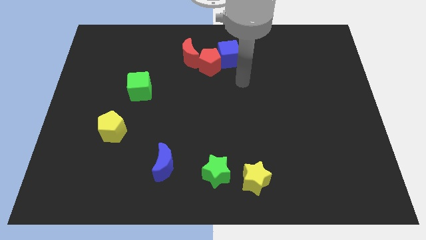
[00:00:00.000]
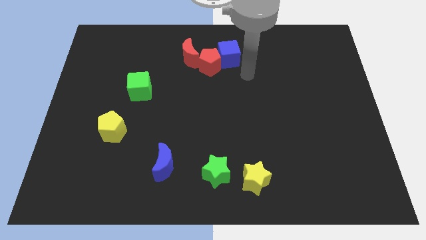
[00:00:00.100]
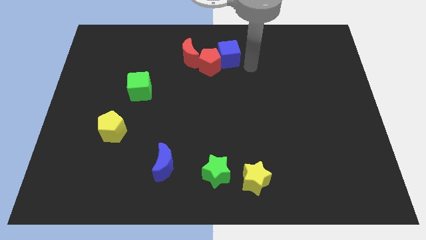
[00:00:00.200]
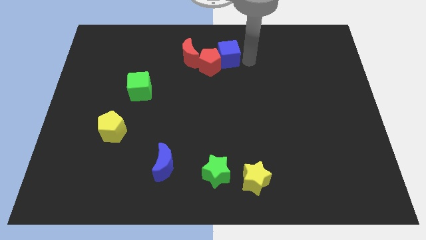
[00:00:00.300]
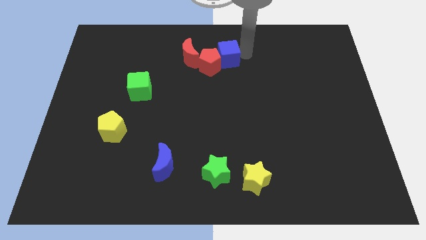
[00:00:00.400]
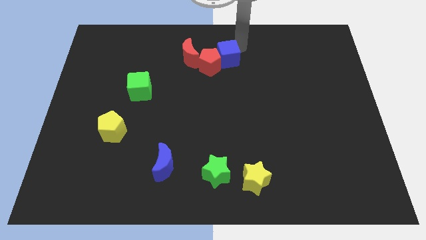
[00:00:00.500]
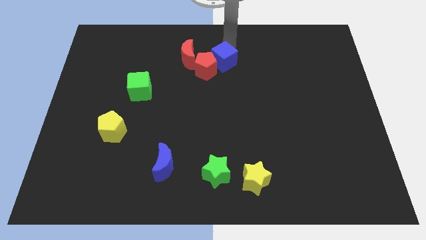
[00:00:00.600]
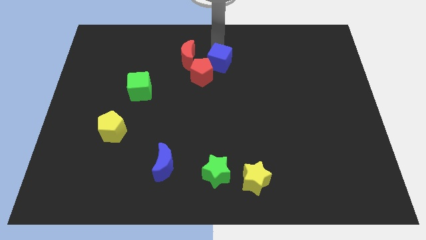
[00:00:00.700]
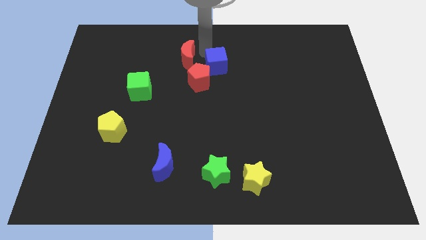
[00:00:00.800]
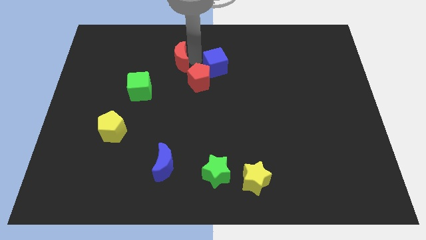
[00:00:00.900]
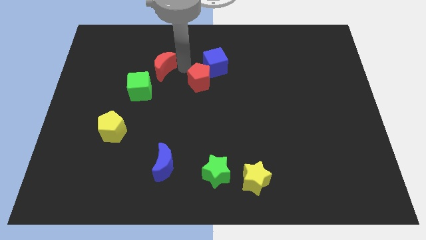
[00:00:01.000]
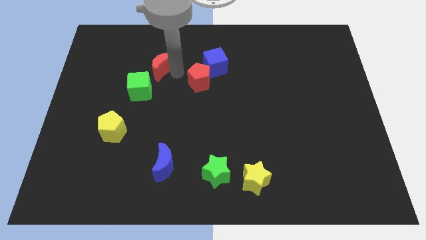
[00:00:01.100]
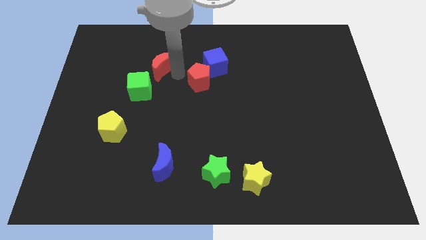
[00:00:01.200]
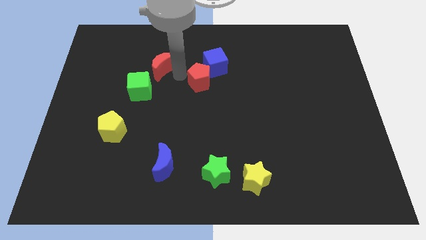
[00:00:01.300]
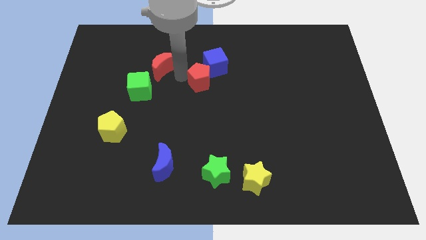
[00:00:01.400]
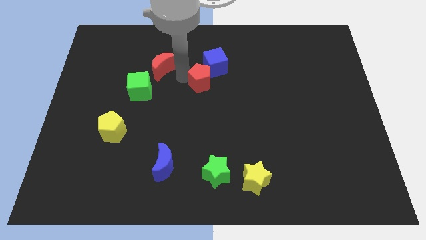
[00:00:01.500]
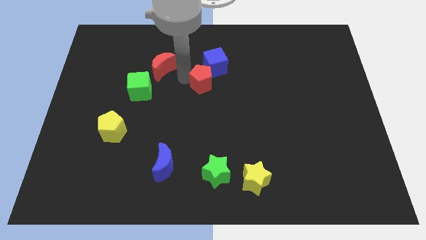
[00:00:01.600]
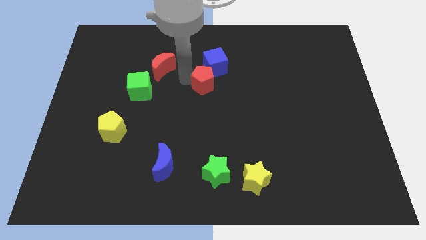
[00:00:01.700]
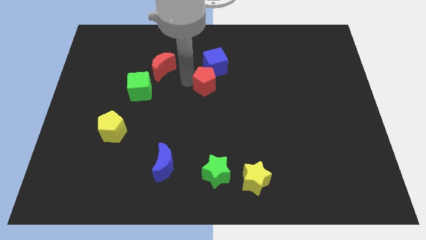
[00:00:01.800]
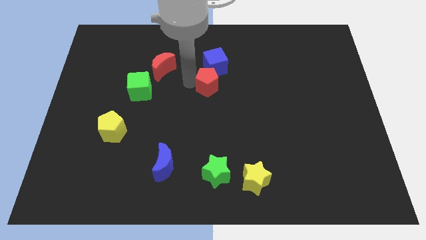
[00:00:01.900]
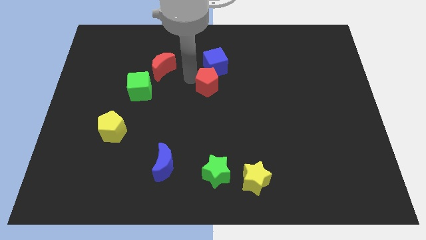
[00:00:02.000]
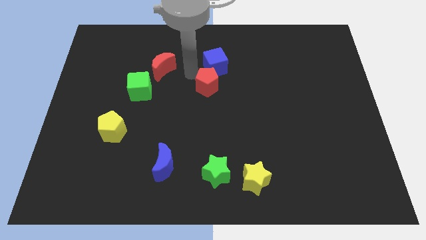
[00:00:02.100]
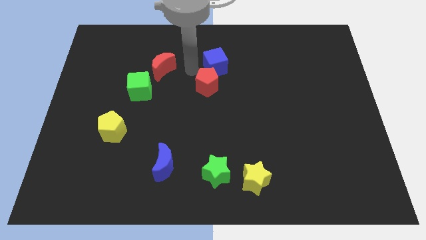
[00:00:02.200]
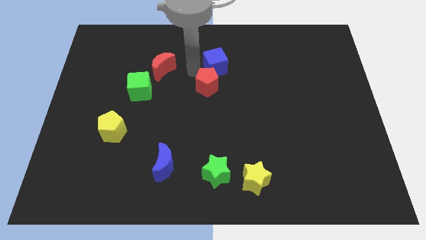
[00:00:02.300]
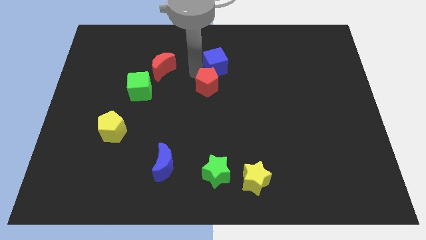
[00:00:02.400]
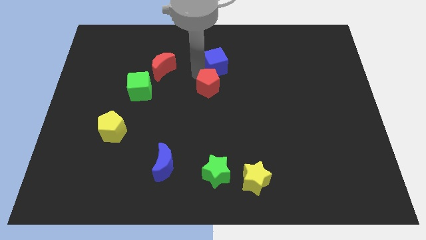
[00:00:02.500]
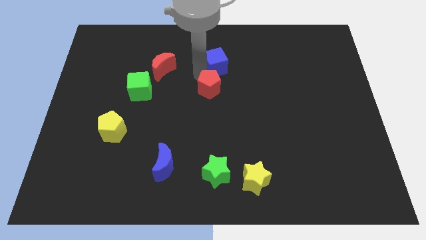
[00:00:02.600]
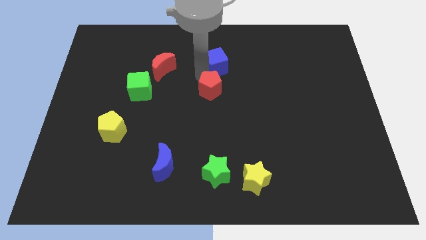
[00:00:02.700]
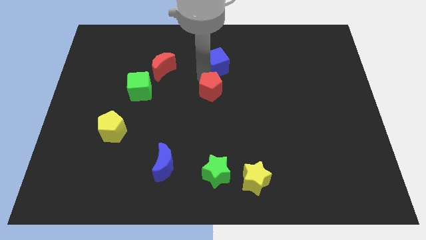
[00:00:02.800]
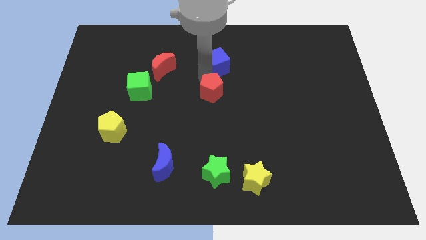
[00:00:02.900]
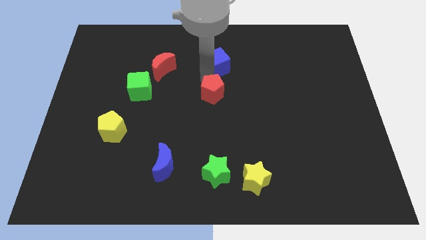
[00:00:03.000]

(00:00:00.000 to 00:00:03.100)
move the red pentagon away from the blue cube and red moon

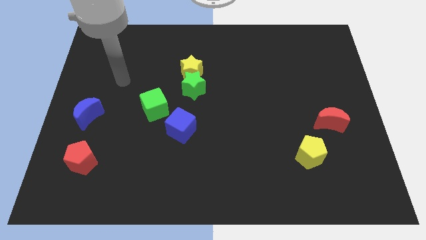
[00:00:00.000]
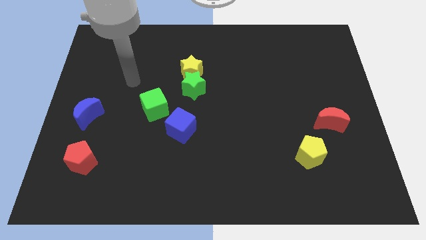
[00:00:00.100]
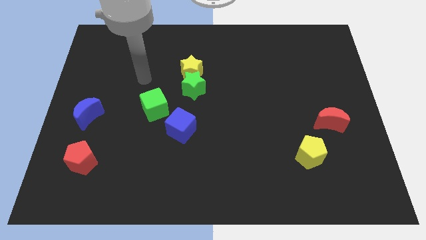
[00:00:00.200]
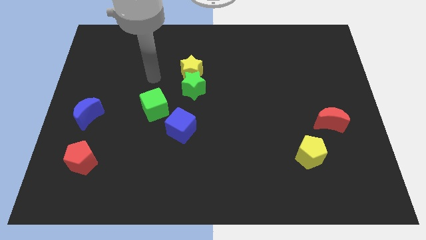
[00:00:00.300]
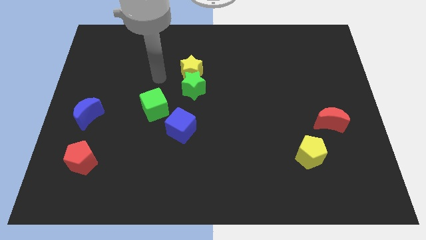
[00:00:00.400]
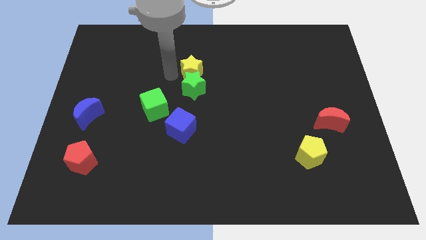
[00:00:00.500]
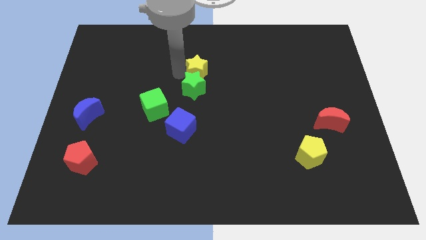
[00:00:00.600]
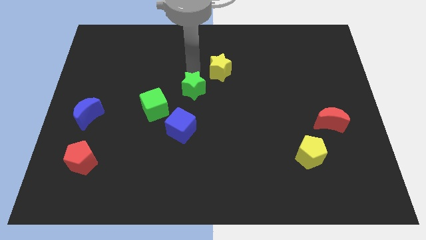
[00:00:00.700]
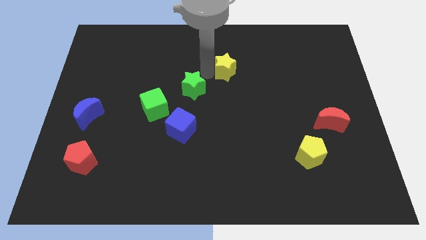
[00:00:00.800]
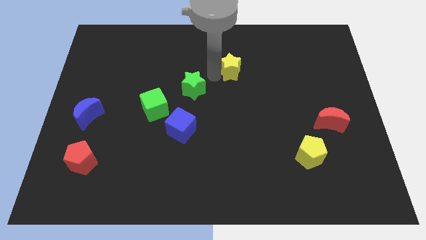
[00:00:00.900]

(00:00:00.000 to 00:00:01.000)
move the green star away from the yellow star

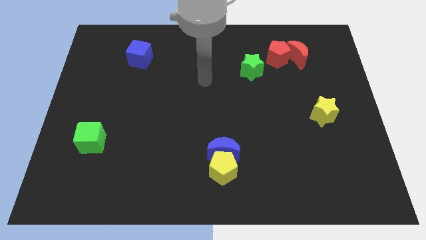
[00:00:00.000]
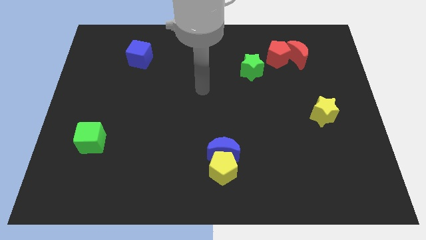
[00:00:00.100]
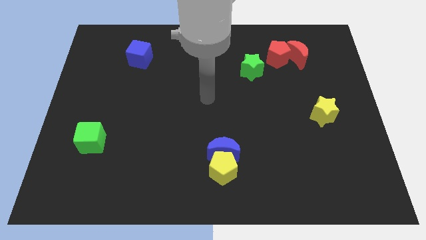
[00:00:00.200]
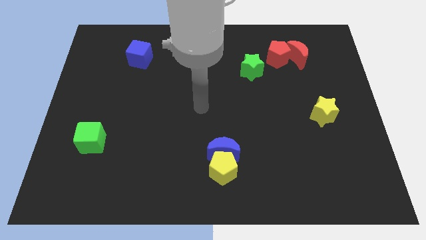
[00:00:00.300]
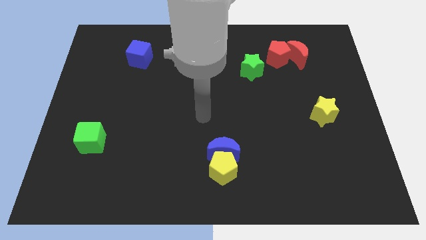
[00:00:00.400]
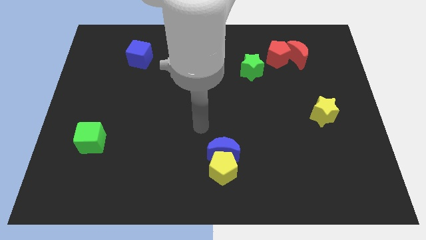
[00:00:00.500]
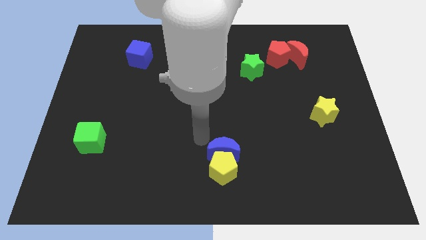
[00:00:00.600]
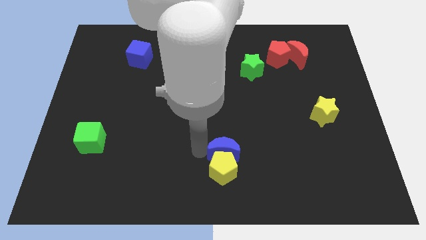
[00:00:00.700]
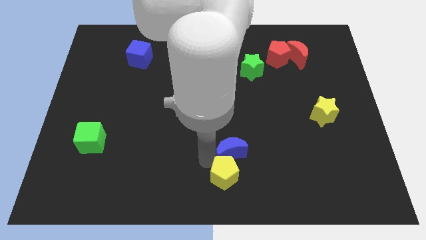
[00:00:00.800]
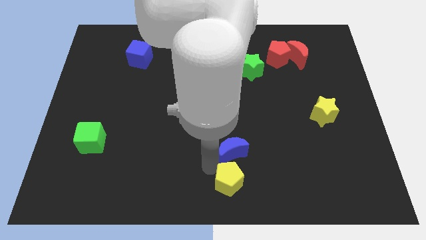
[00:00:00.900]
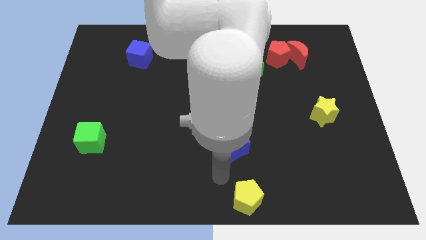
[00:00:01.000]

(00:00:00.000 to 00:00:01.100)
separate the blue moon from the yellow pentagon

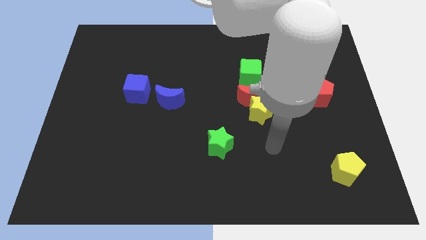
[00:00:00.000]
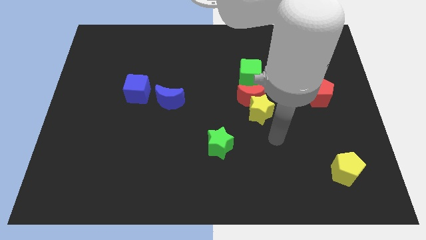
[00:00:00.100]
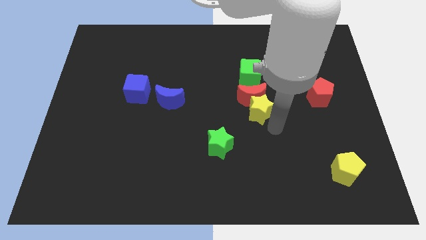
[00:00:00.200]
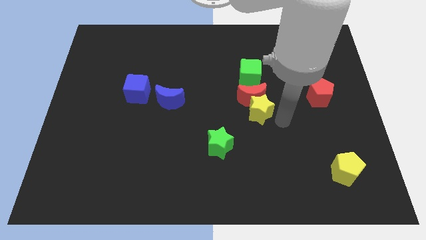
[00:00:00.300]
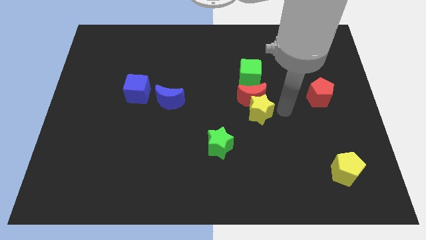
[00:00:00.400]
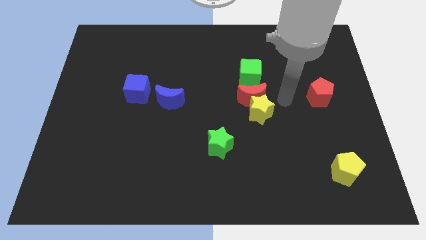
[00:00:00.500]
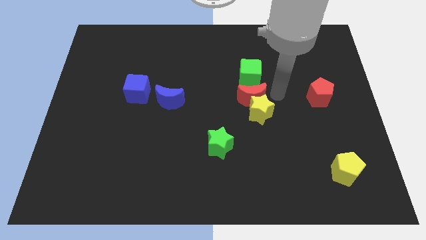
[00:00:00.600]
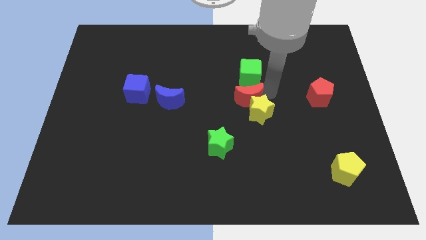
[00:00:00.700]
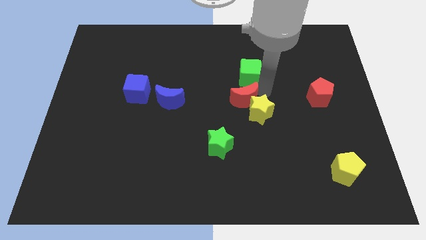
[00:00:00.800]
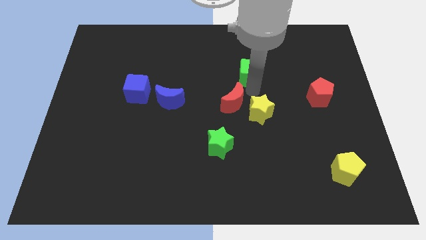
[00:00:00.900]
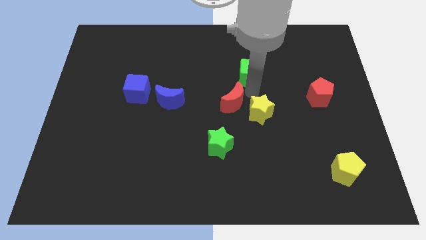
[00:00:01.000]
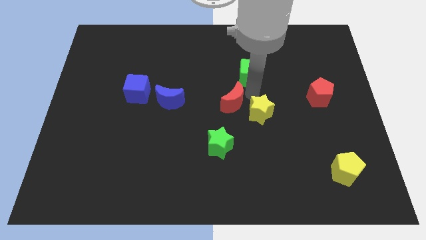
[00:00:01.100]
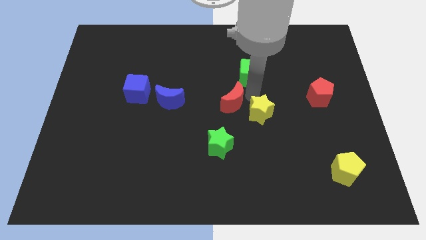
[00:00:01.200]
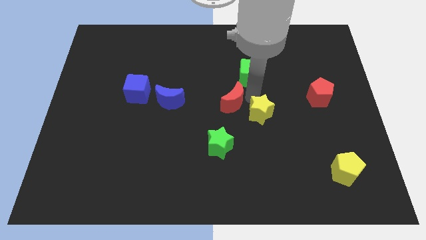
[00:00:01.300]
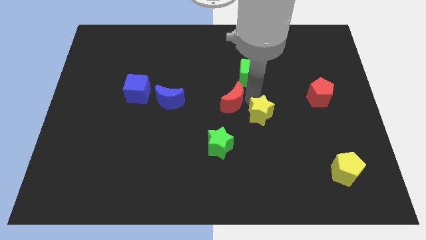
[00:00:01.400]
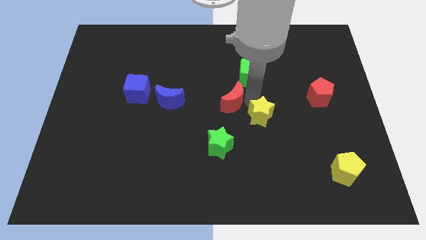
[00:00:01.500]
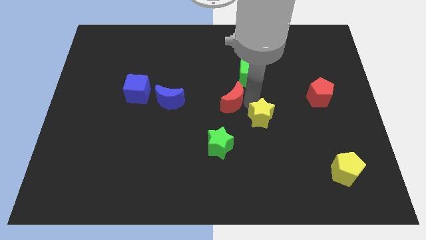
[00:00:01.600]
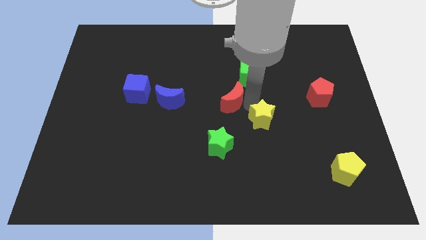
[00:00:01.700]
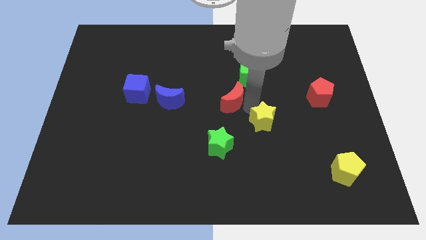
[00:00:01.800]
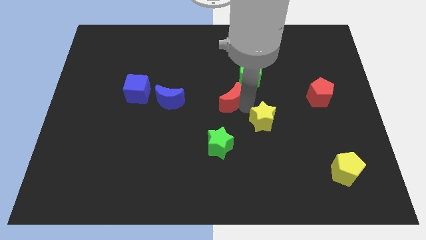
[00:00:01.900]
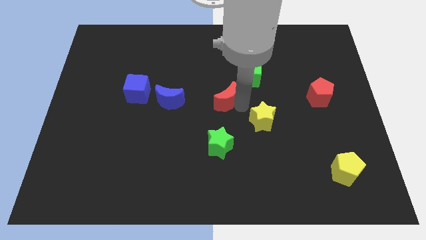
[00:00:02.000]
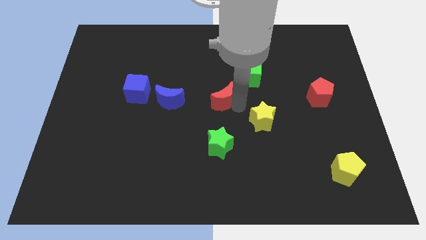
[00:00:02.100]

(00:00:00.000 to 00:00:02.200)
move the yellow star away from the red moon

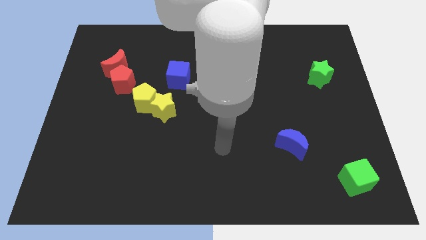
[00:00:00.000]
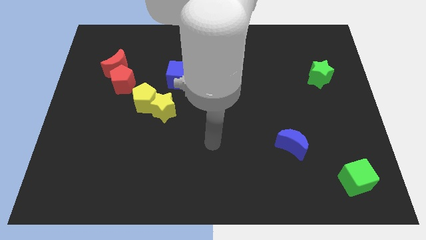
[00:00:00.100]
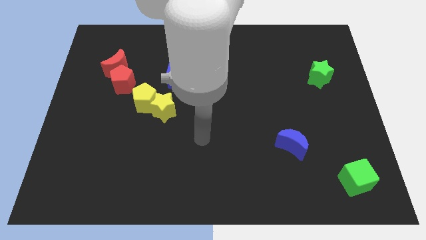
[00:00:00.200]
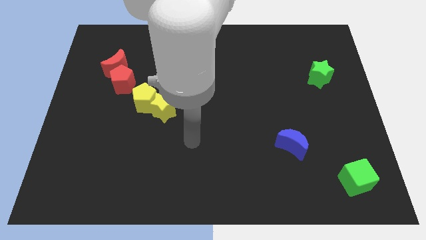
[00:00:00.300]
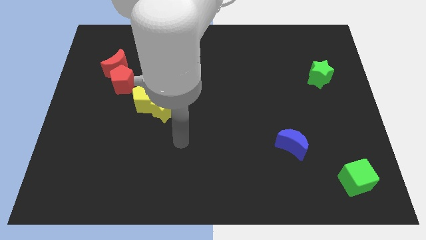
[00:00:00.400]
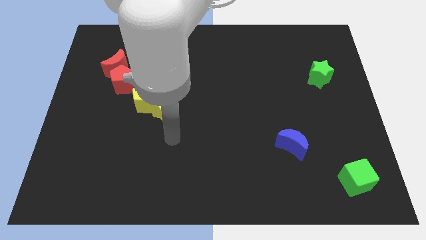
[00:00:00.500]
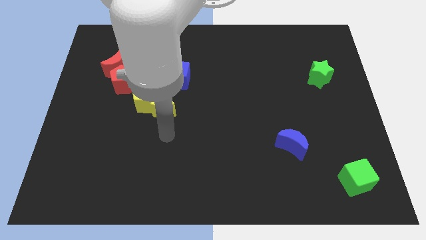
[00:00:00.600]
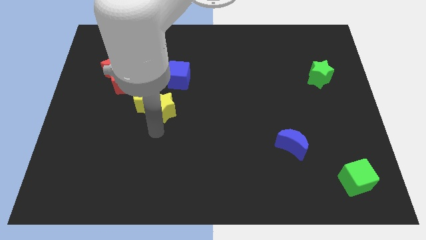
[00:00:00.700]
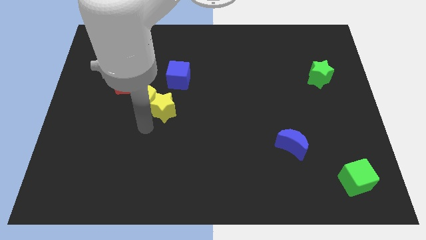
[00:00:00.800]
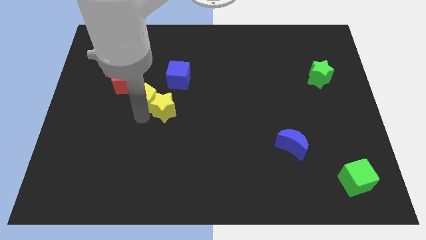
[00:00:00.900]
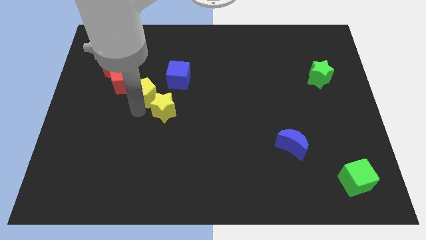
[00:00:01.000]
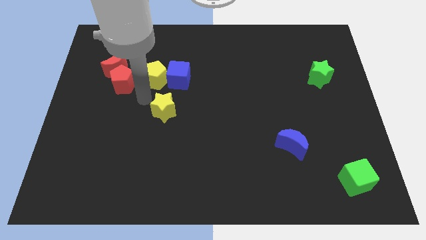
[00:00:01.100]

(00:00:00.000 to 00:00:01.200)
move the yellow star away from the yellow pentagon

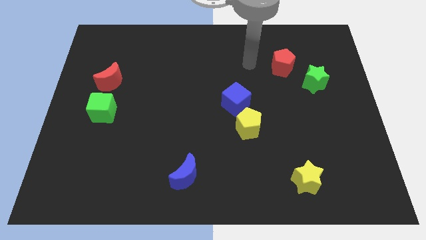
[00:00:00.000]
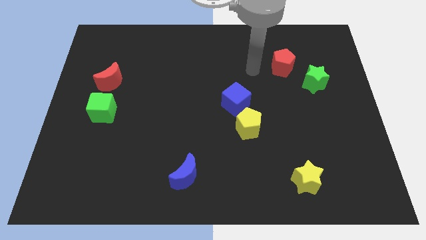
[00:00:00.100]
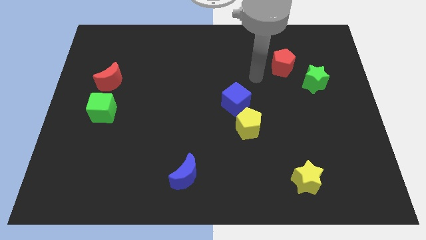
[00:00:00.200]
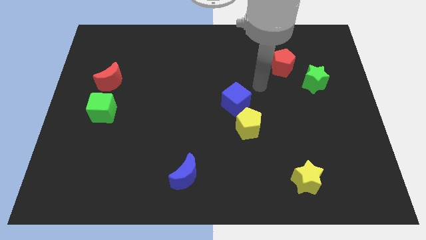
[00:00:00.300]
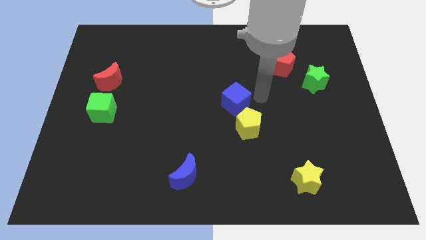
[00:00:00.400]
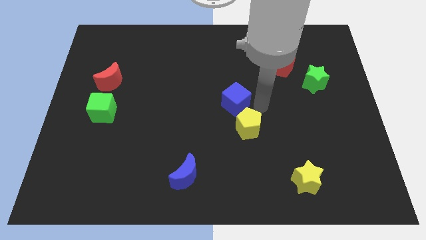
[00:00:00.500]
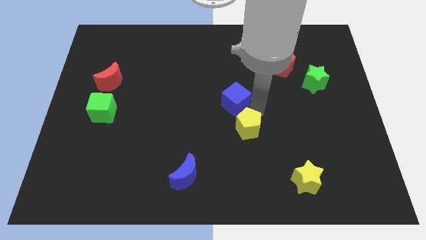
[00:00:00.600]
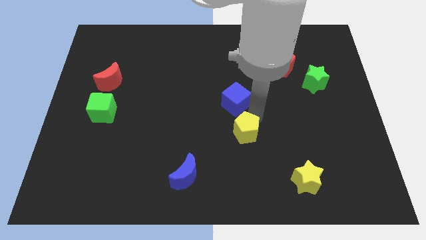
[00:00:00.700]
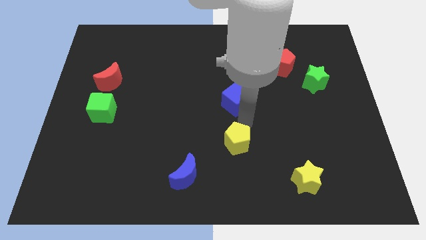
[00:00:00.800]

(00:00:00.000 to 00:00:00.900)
move the blue cube away from the yellow pentagon
